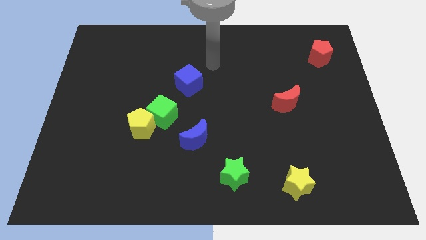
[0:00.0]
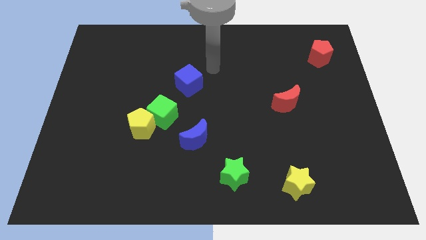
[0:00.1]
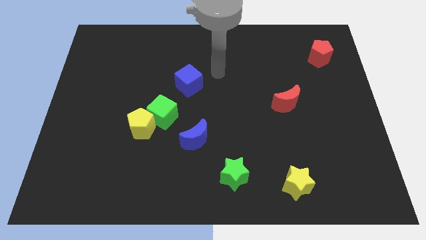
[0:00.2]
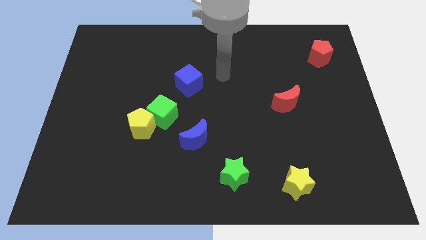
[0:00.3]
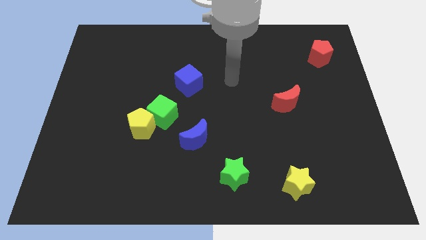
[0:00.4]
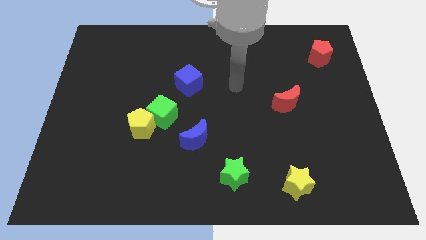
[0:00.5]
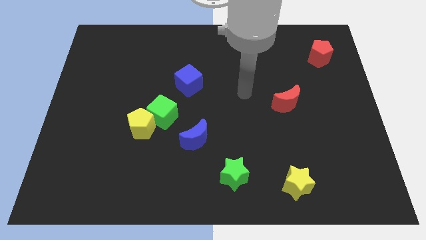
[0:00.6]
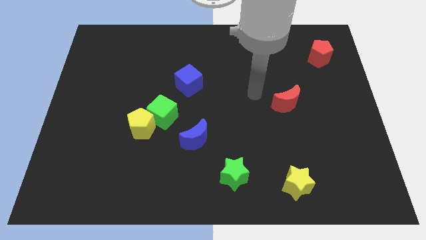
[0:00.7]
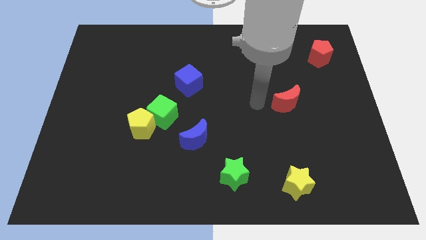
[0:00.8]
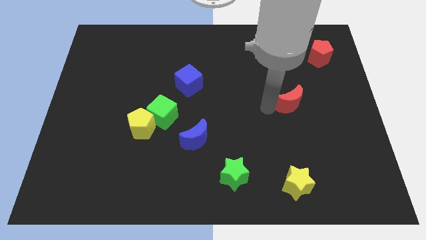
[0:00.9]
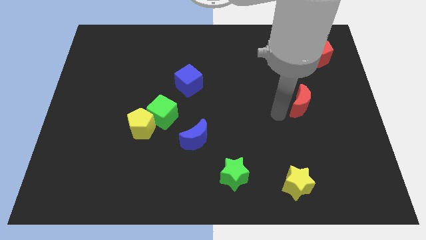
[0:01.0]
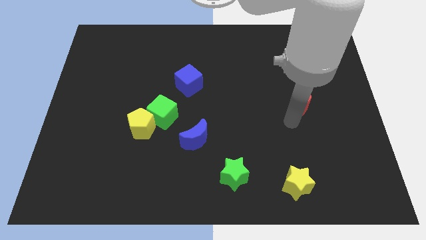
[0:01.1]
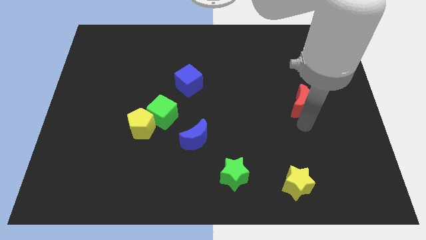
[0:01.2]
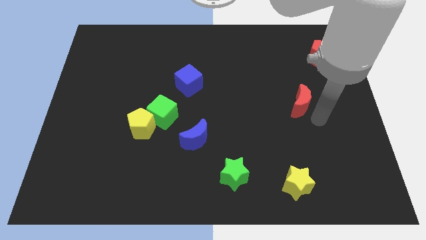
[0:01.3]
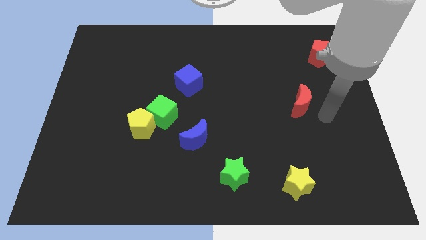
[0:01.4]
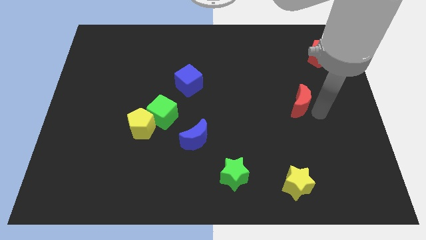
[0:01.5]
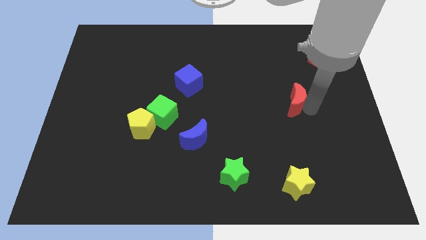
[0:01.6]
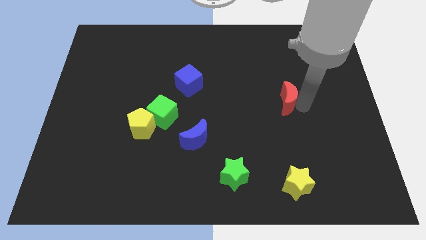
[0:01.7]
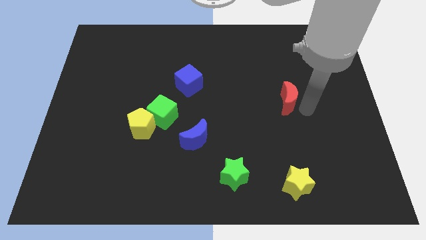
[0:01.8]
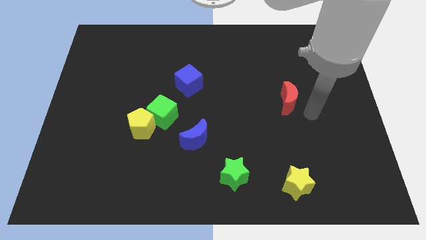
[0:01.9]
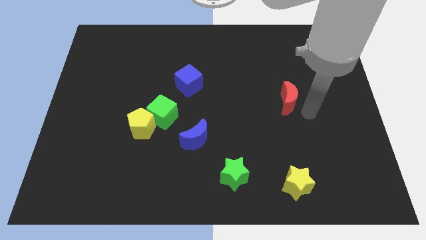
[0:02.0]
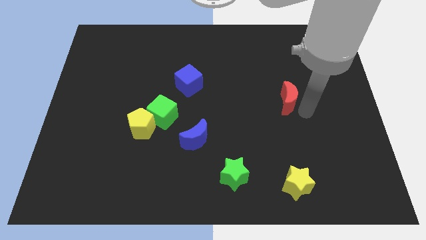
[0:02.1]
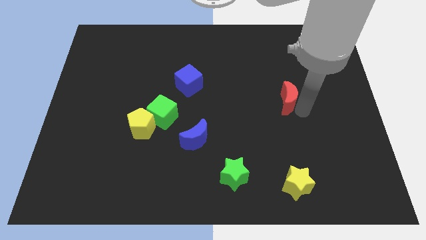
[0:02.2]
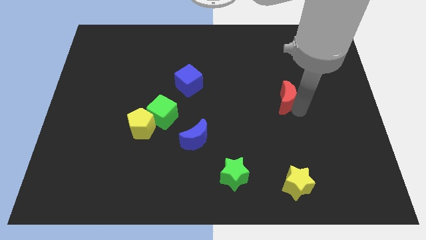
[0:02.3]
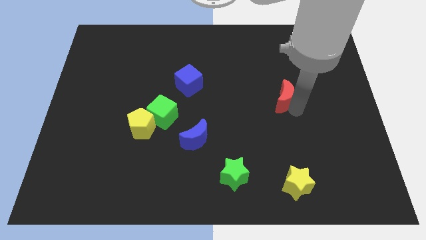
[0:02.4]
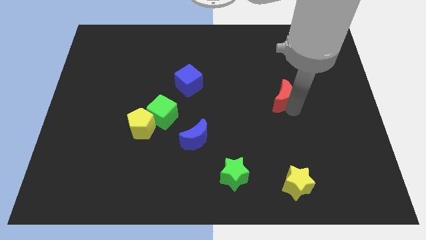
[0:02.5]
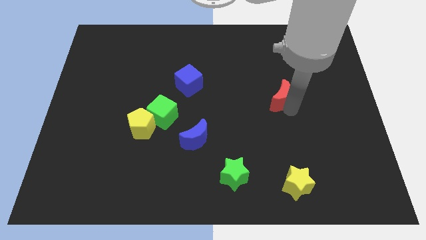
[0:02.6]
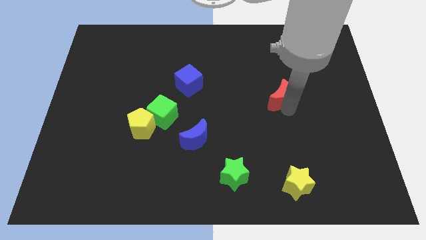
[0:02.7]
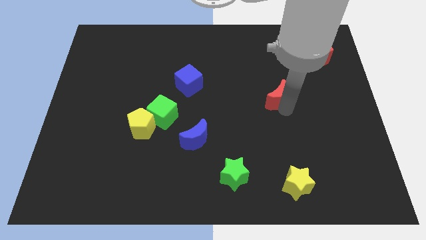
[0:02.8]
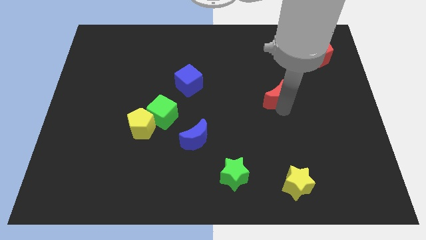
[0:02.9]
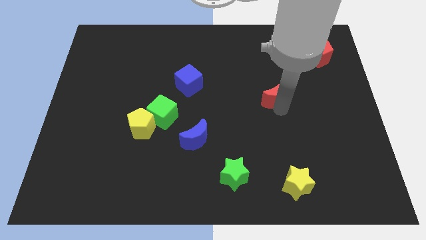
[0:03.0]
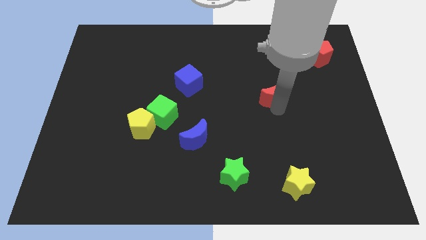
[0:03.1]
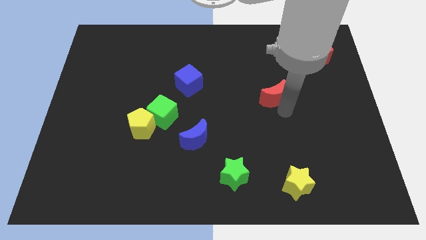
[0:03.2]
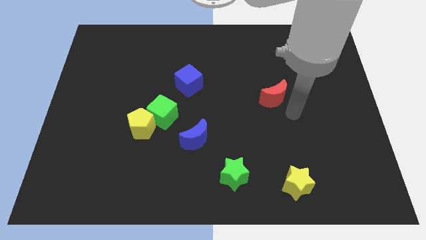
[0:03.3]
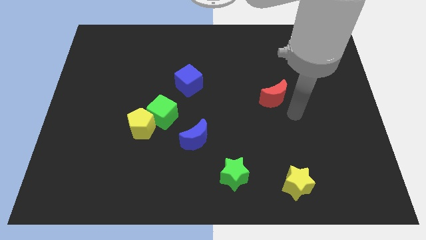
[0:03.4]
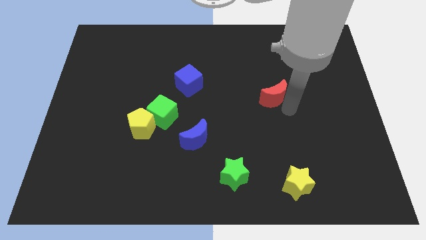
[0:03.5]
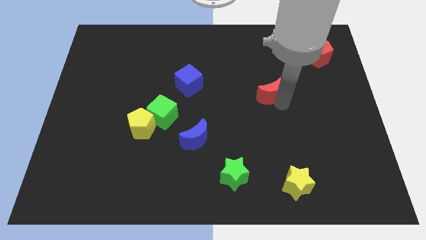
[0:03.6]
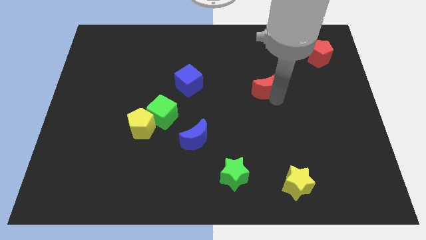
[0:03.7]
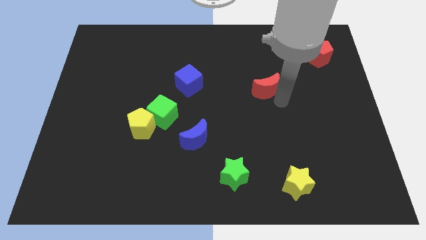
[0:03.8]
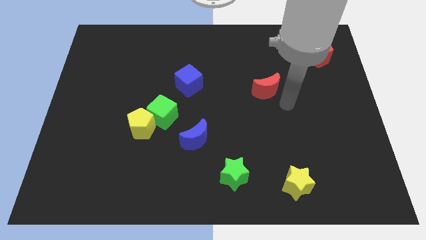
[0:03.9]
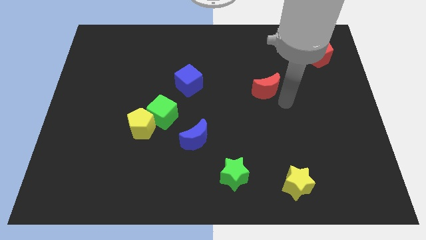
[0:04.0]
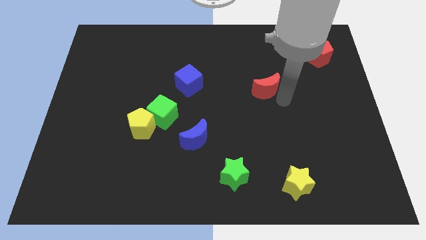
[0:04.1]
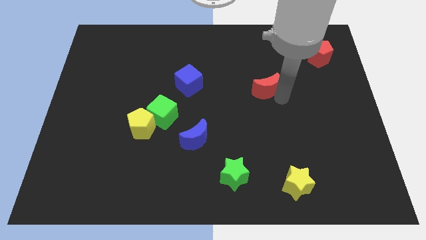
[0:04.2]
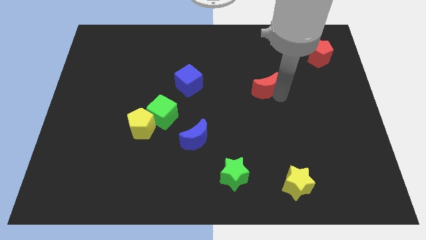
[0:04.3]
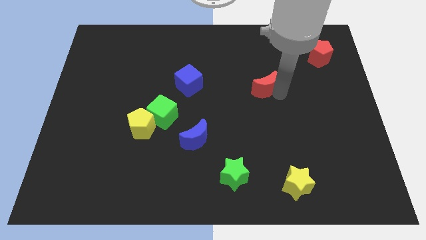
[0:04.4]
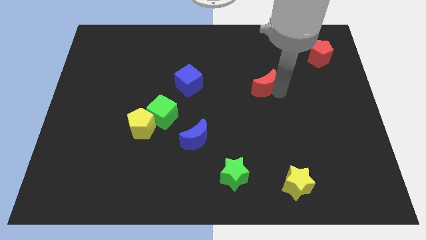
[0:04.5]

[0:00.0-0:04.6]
push the red moon upwards and to the left diagonally slightly

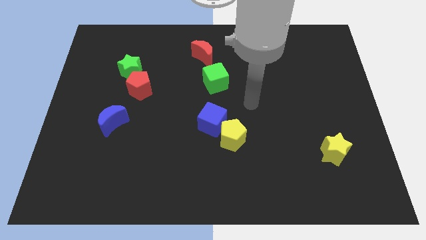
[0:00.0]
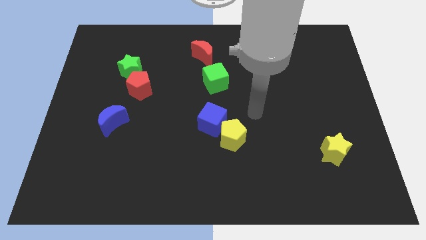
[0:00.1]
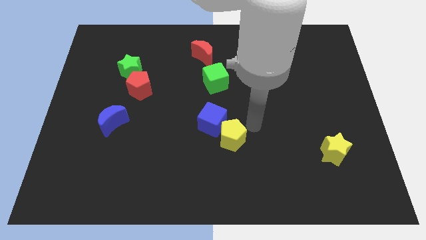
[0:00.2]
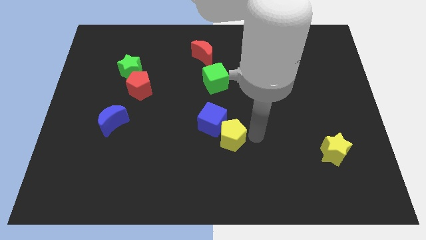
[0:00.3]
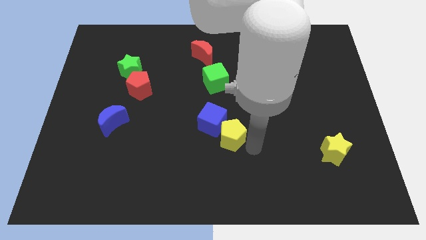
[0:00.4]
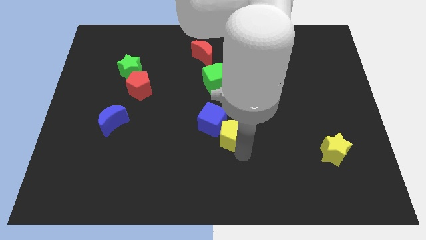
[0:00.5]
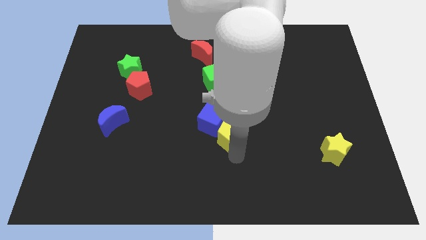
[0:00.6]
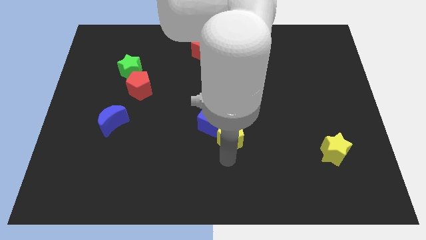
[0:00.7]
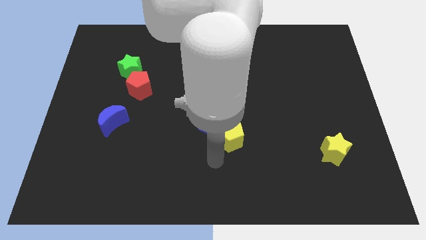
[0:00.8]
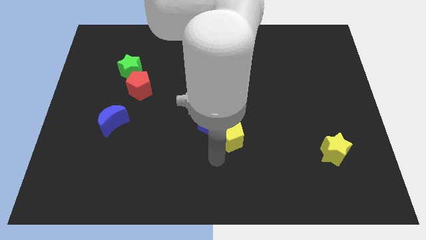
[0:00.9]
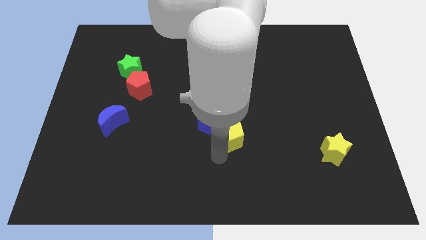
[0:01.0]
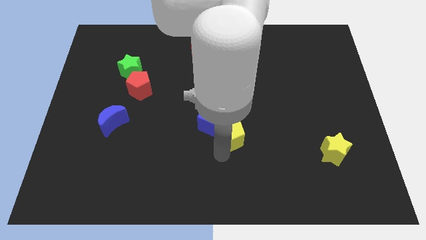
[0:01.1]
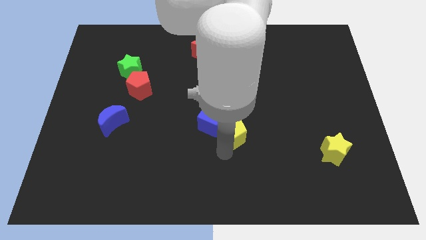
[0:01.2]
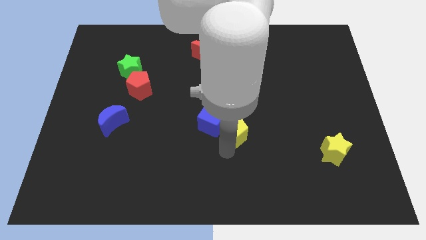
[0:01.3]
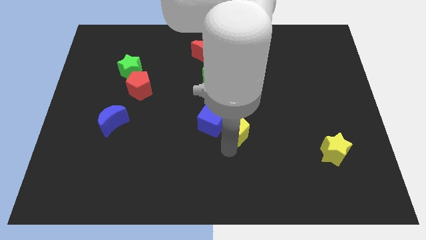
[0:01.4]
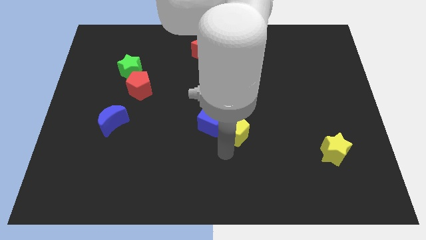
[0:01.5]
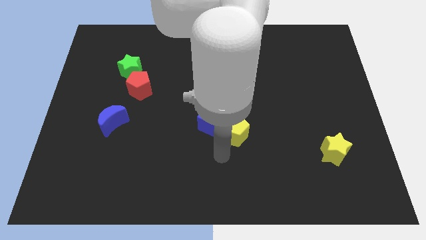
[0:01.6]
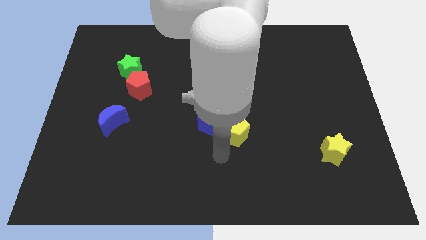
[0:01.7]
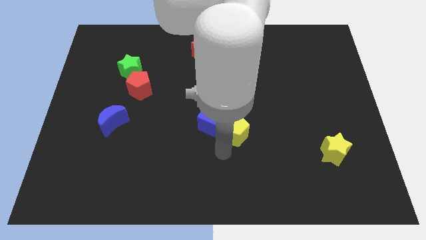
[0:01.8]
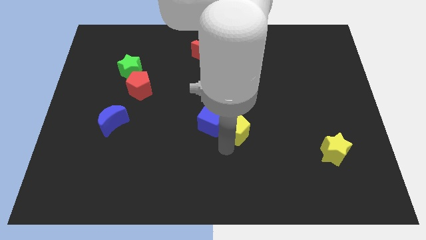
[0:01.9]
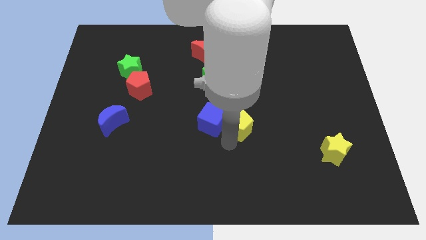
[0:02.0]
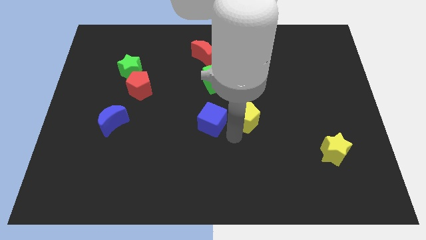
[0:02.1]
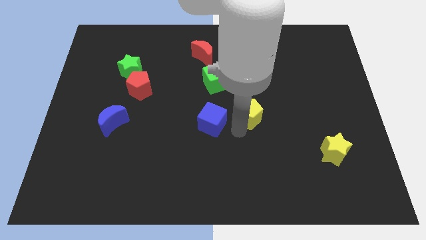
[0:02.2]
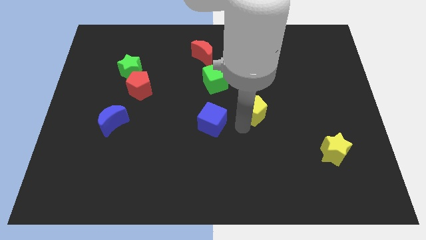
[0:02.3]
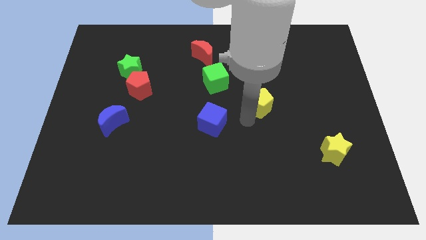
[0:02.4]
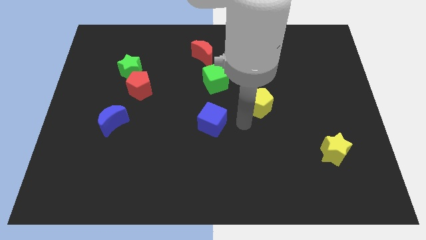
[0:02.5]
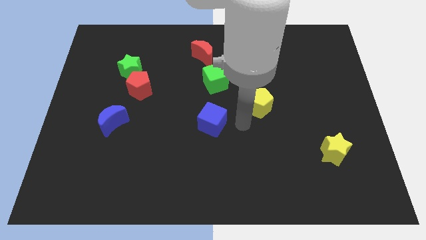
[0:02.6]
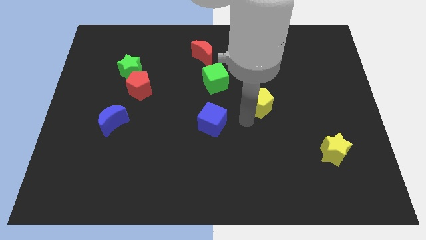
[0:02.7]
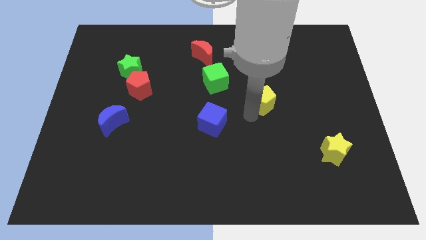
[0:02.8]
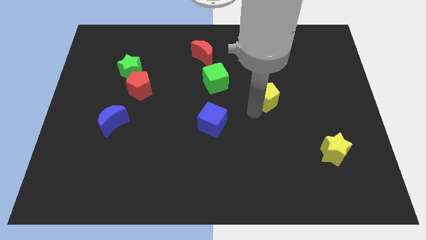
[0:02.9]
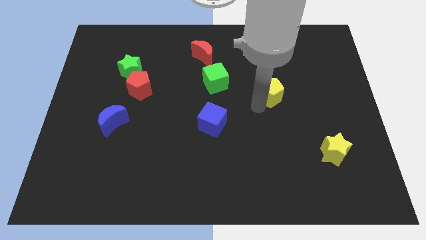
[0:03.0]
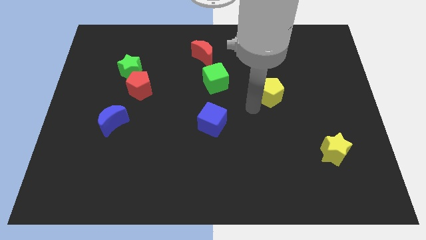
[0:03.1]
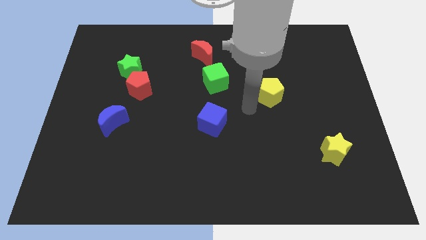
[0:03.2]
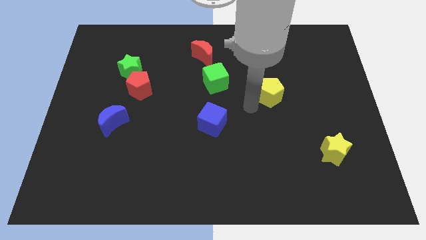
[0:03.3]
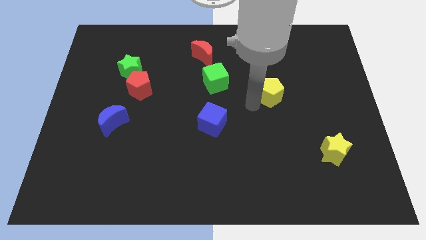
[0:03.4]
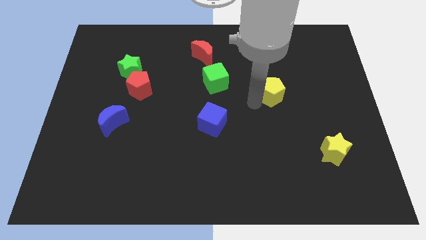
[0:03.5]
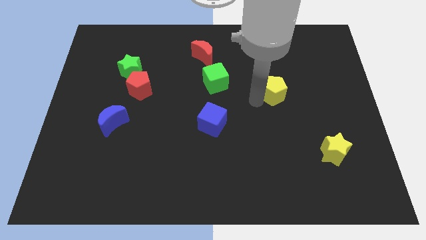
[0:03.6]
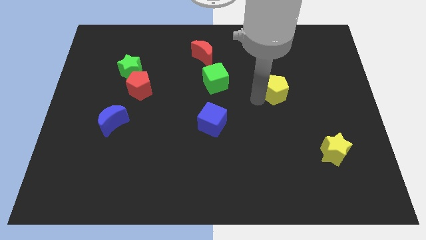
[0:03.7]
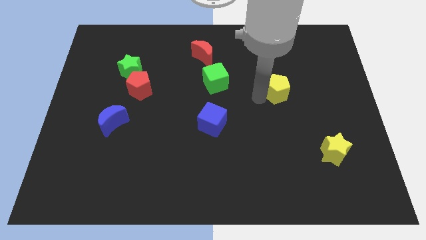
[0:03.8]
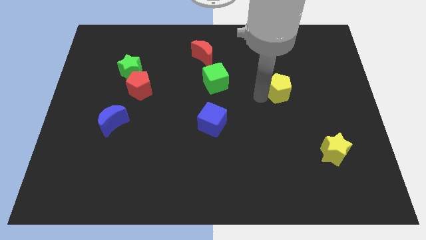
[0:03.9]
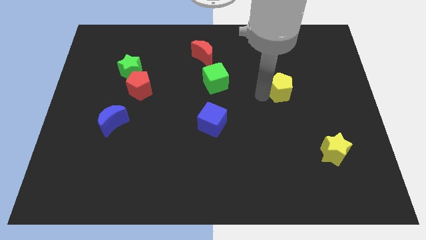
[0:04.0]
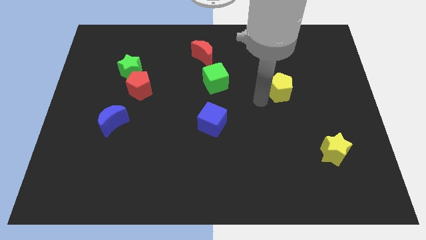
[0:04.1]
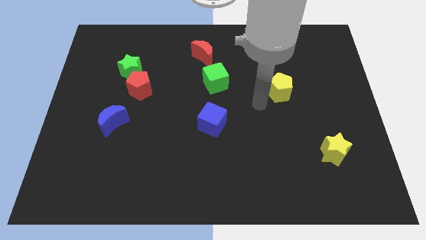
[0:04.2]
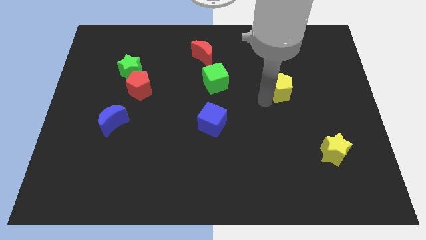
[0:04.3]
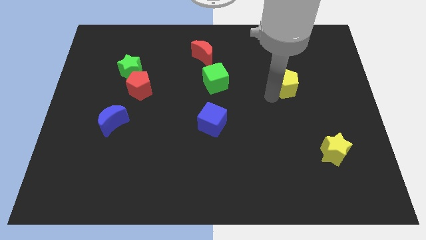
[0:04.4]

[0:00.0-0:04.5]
slide the yellow pentagon diagonally up and to the right
